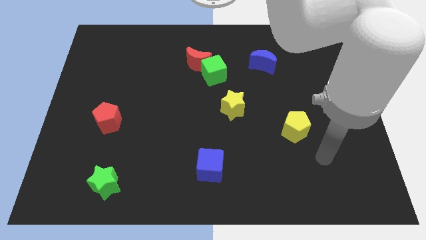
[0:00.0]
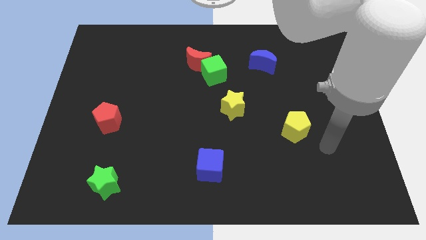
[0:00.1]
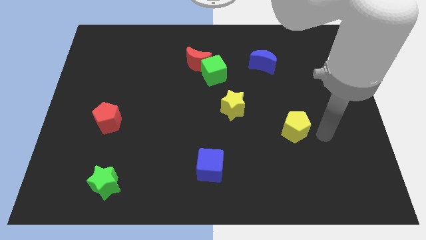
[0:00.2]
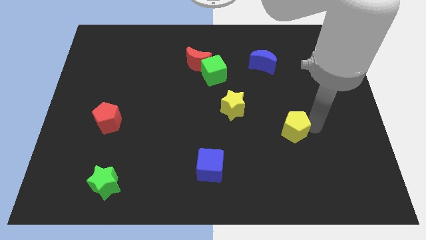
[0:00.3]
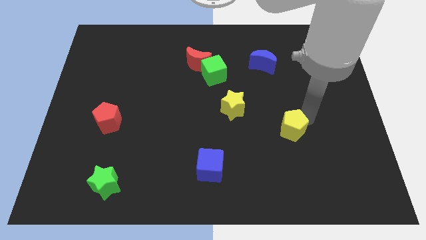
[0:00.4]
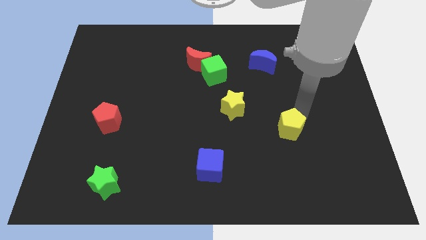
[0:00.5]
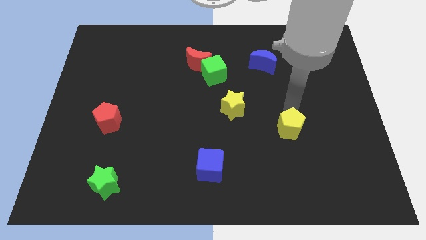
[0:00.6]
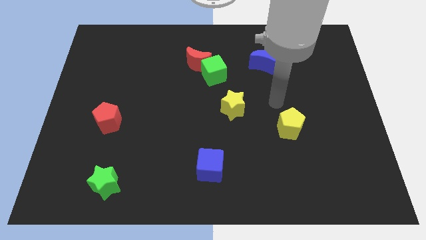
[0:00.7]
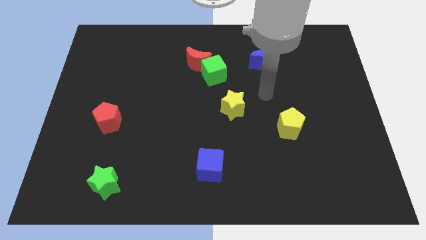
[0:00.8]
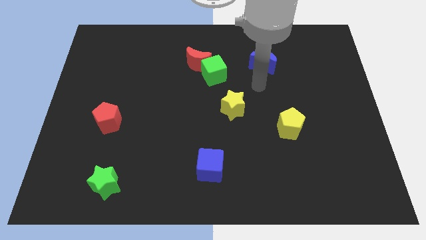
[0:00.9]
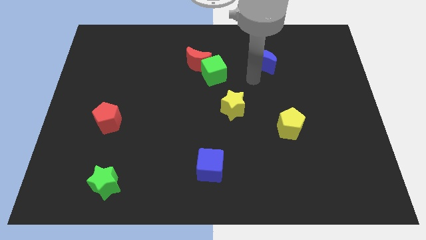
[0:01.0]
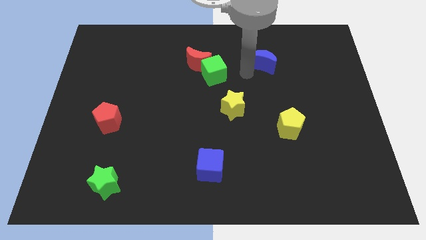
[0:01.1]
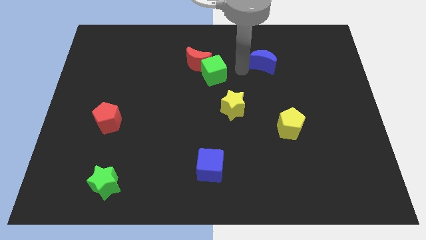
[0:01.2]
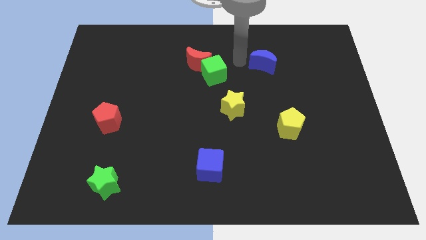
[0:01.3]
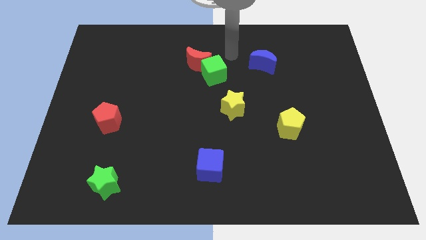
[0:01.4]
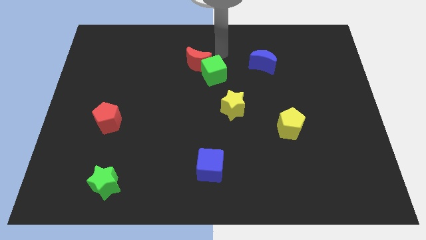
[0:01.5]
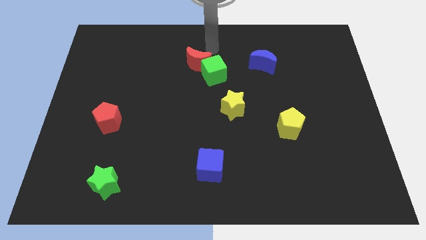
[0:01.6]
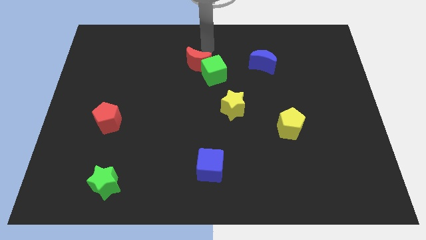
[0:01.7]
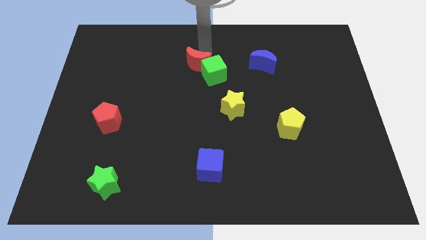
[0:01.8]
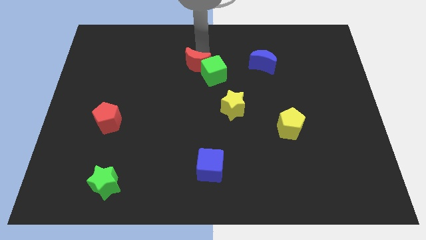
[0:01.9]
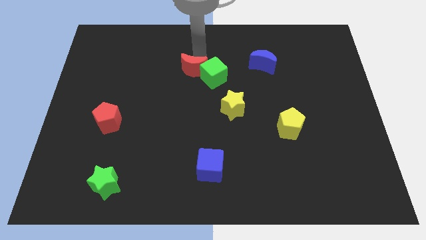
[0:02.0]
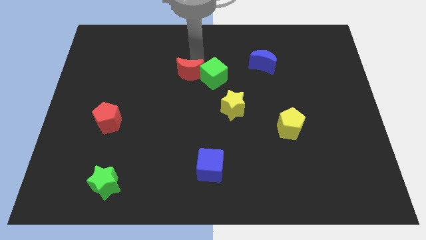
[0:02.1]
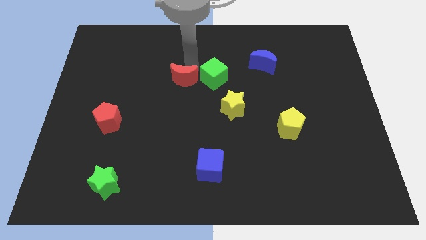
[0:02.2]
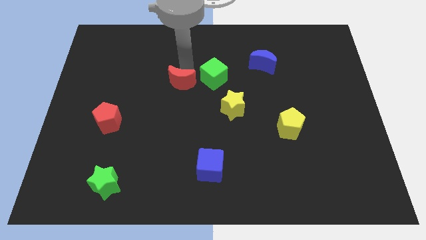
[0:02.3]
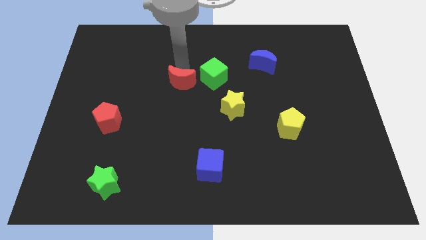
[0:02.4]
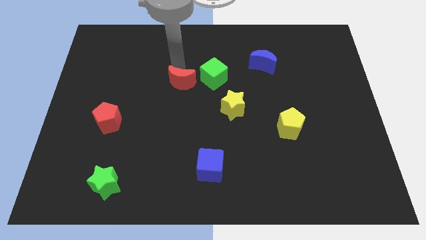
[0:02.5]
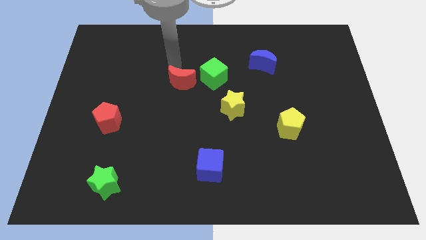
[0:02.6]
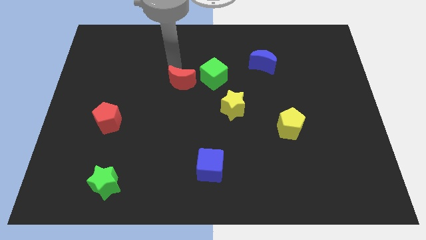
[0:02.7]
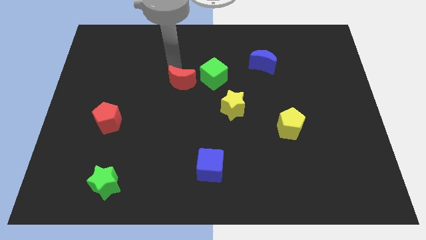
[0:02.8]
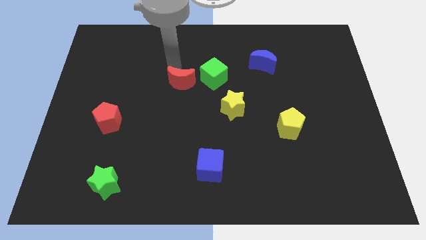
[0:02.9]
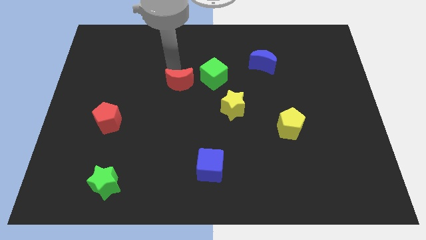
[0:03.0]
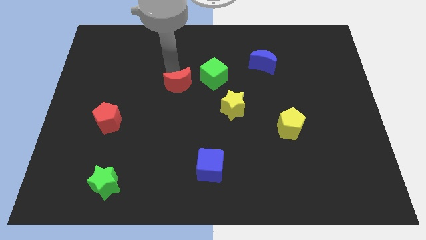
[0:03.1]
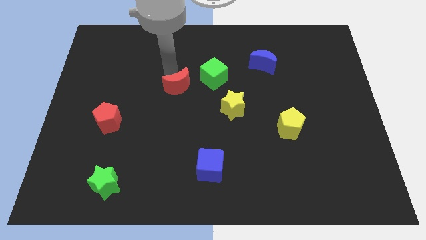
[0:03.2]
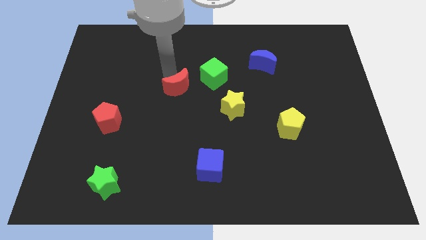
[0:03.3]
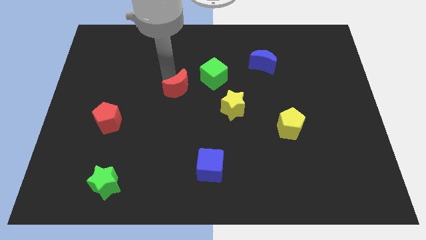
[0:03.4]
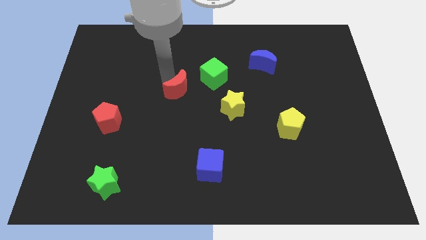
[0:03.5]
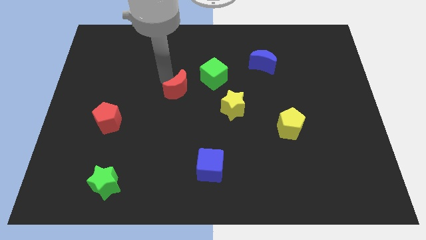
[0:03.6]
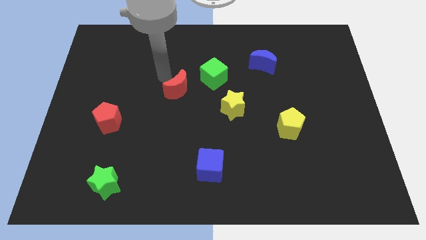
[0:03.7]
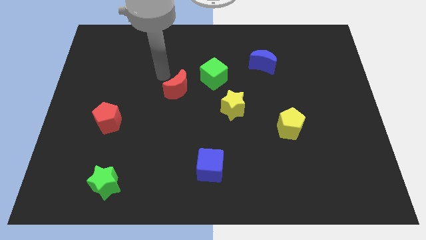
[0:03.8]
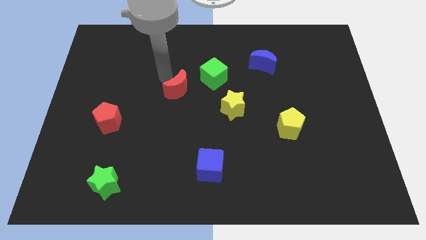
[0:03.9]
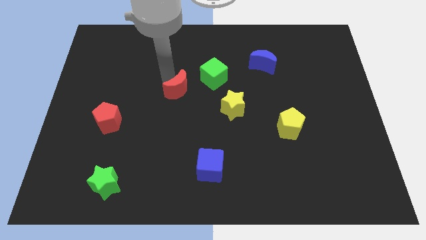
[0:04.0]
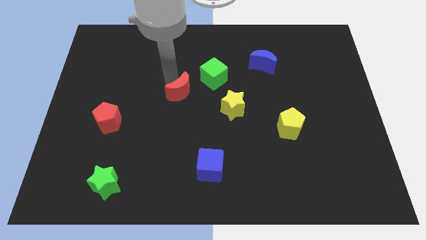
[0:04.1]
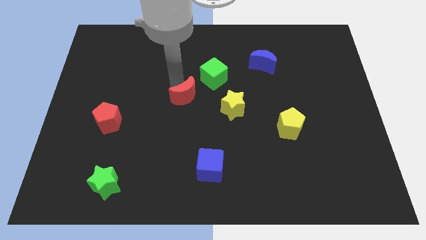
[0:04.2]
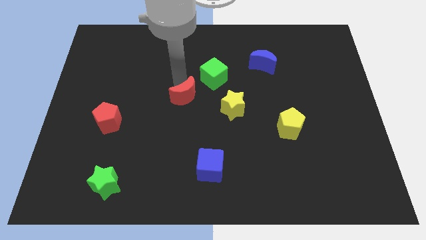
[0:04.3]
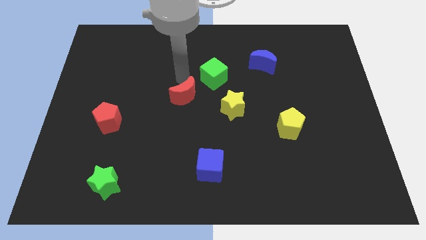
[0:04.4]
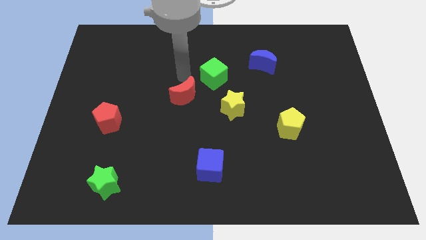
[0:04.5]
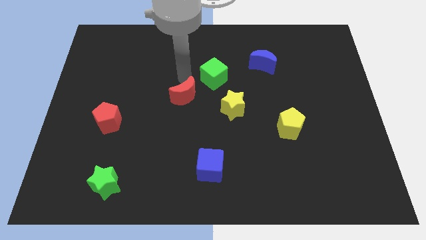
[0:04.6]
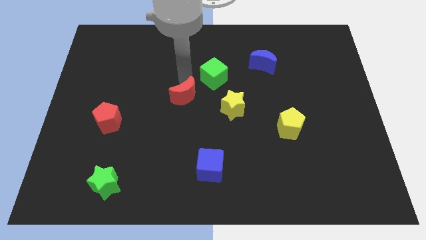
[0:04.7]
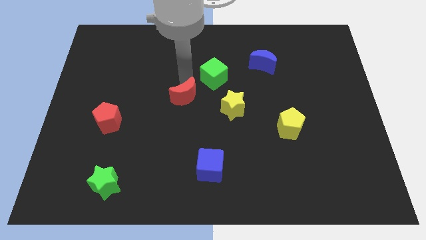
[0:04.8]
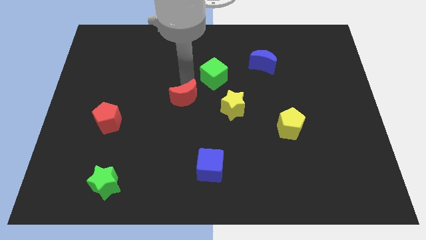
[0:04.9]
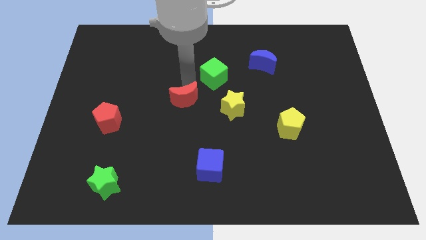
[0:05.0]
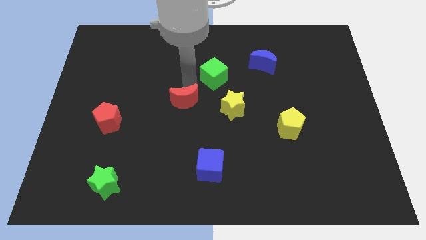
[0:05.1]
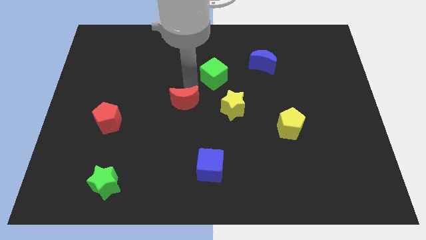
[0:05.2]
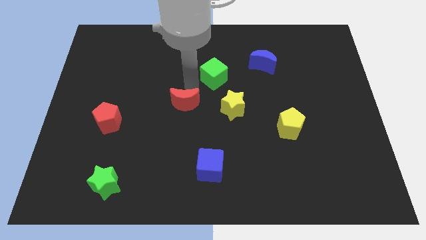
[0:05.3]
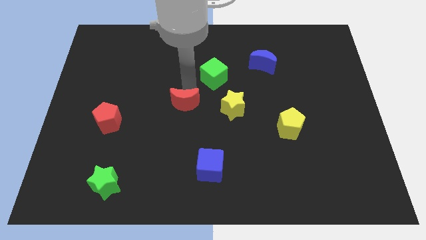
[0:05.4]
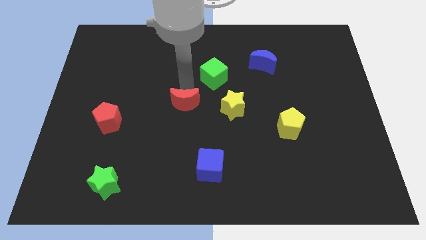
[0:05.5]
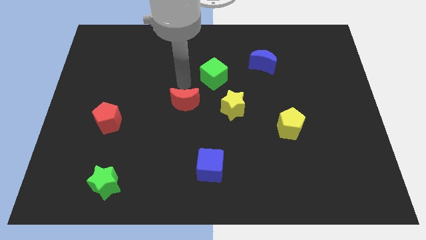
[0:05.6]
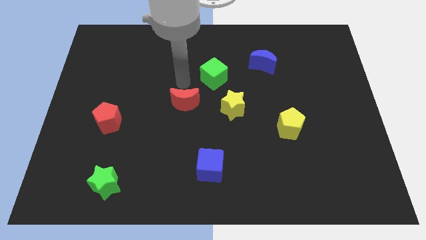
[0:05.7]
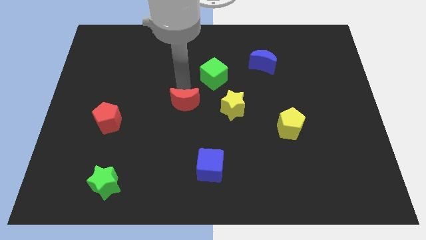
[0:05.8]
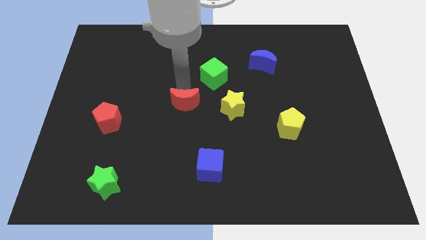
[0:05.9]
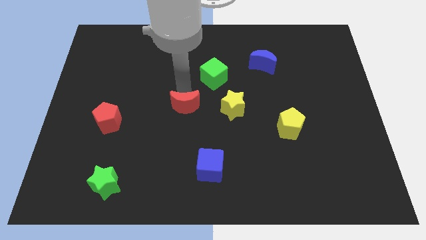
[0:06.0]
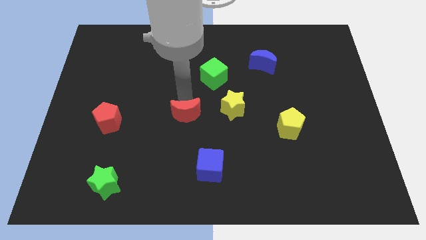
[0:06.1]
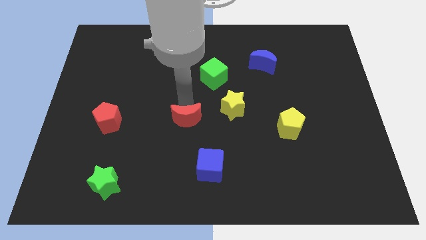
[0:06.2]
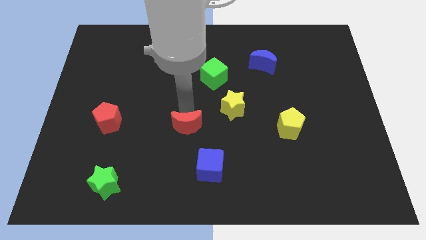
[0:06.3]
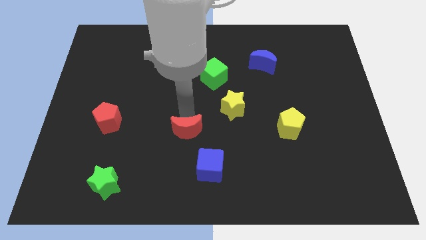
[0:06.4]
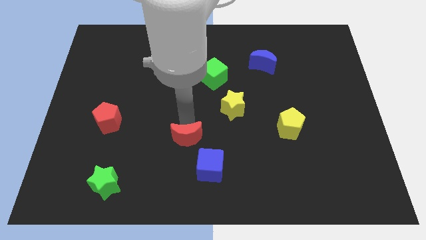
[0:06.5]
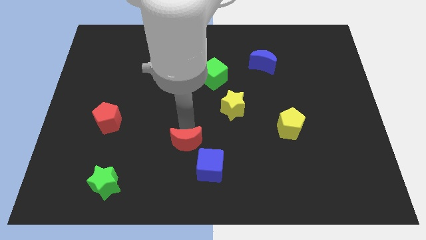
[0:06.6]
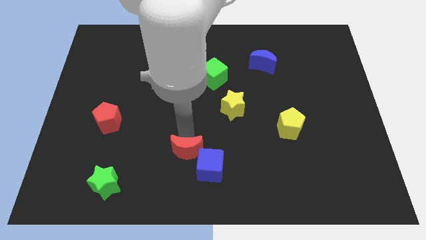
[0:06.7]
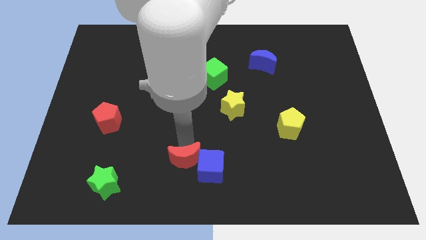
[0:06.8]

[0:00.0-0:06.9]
slide the red moon to the bottom

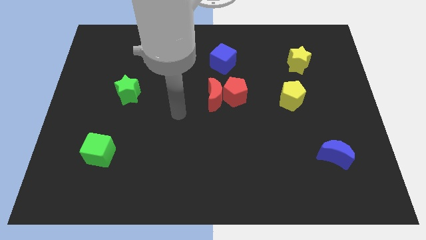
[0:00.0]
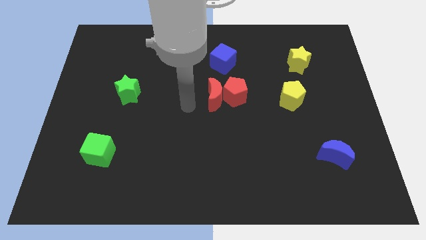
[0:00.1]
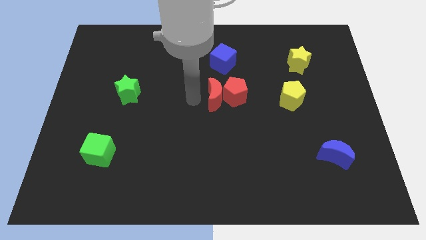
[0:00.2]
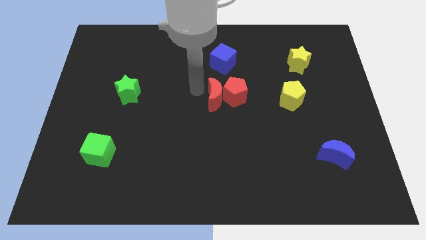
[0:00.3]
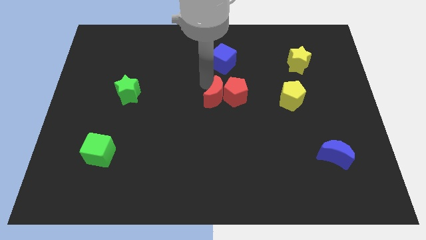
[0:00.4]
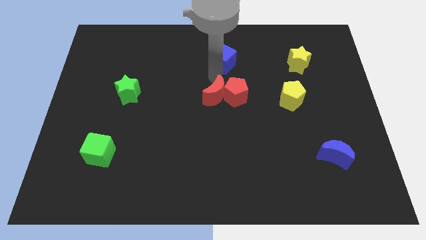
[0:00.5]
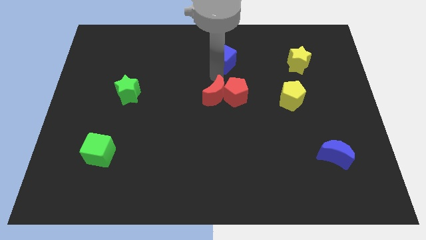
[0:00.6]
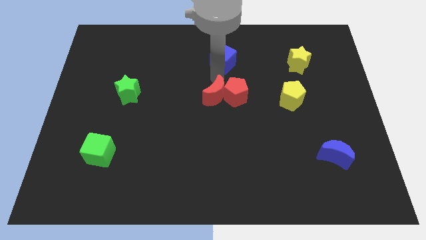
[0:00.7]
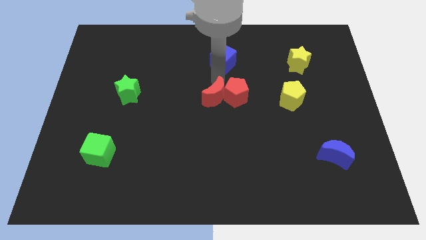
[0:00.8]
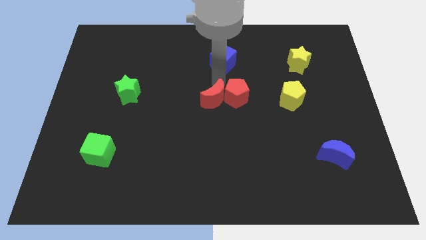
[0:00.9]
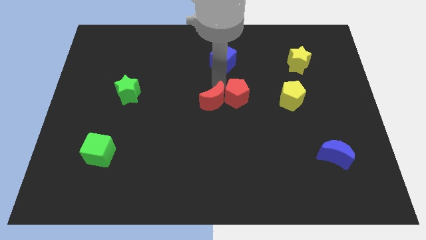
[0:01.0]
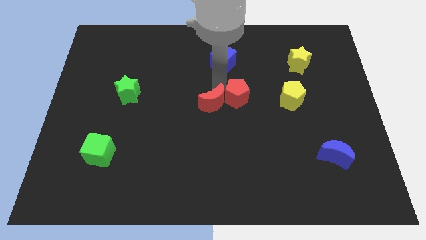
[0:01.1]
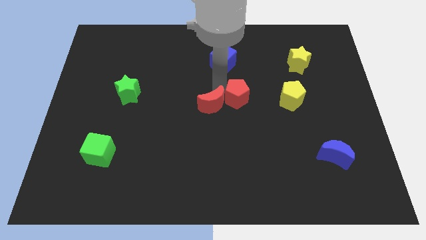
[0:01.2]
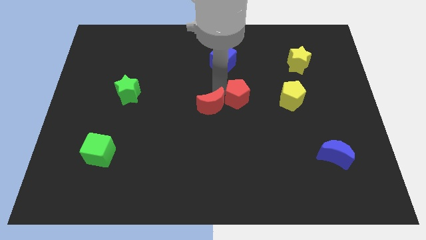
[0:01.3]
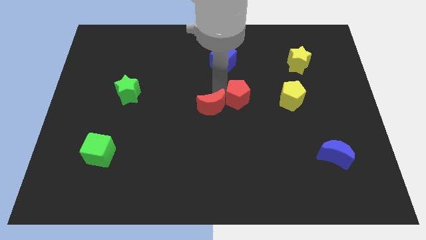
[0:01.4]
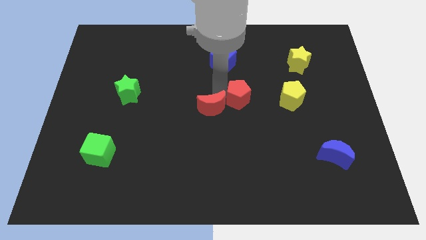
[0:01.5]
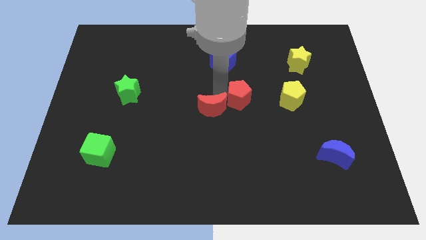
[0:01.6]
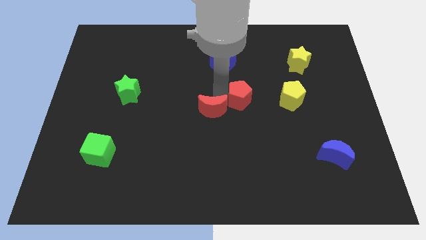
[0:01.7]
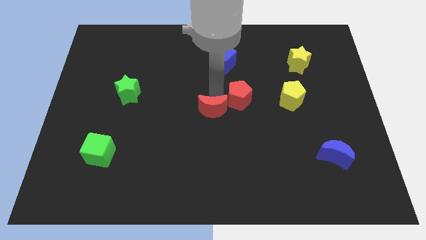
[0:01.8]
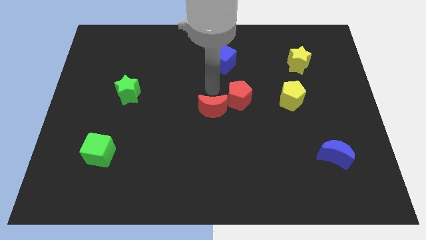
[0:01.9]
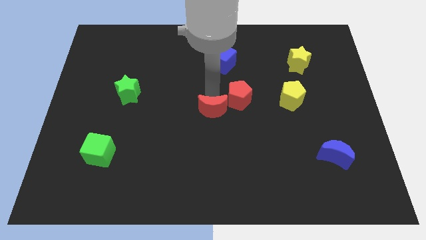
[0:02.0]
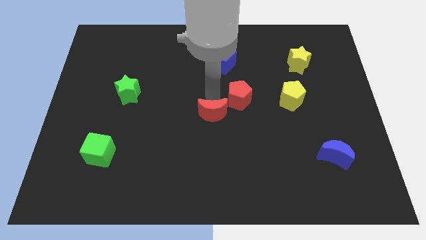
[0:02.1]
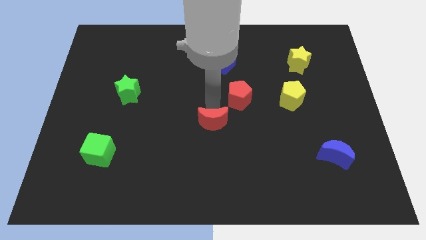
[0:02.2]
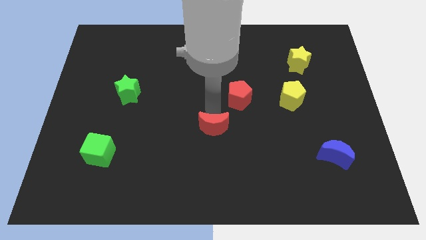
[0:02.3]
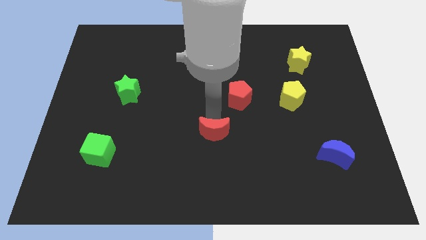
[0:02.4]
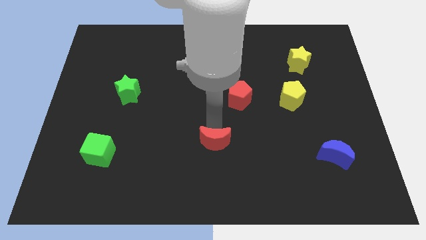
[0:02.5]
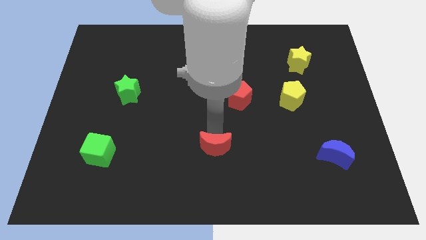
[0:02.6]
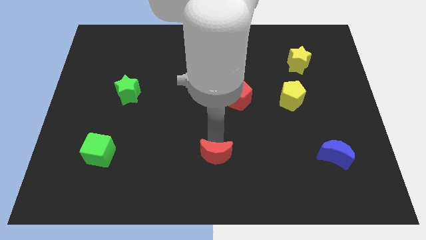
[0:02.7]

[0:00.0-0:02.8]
slide the red moon to the bottom side
